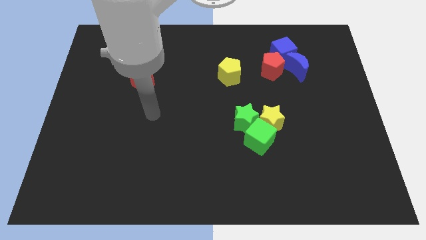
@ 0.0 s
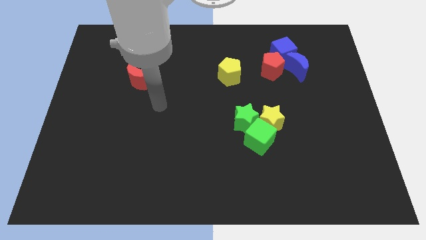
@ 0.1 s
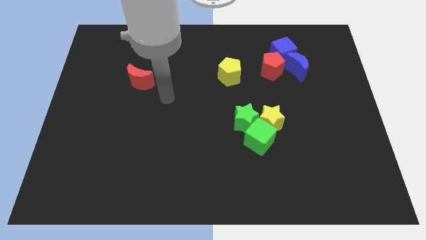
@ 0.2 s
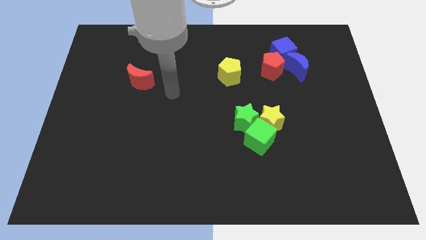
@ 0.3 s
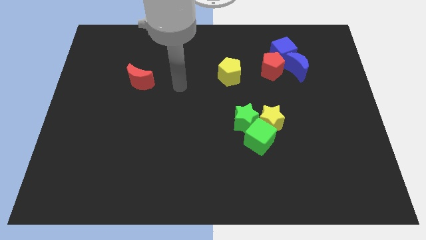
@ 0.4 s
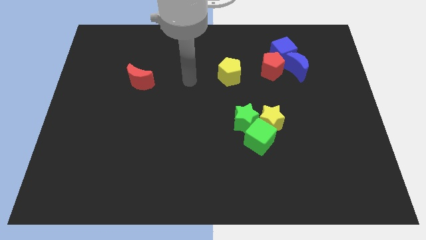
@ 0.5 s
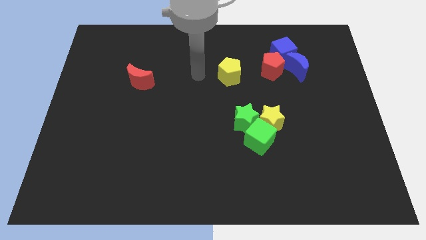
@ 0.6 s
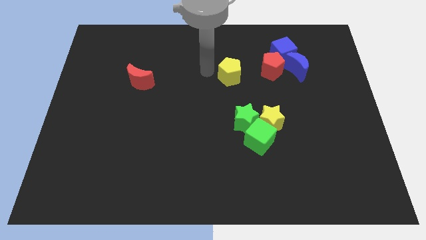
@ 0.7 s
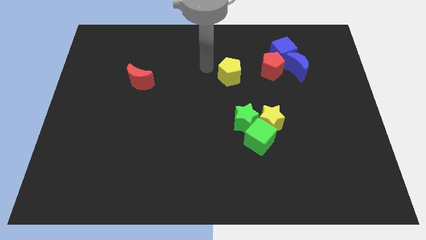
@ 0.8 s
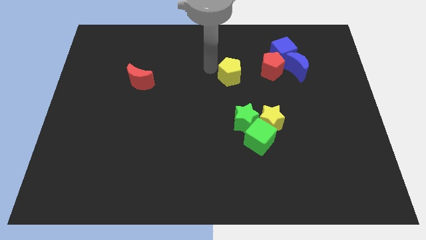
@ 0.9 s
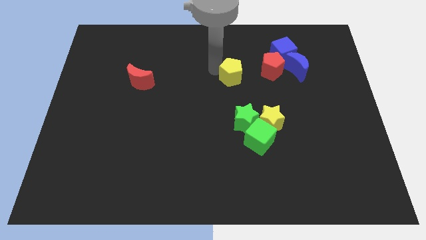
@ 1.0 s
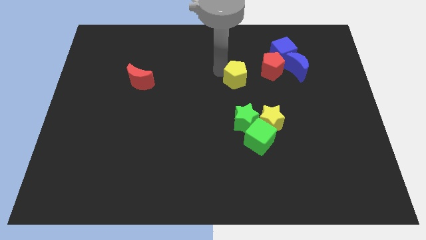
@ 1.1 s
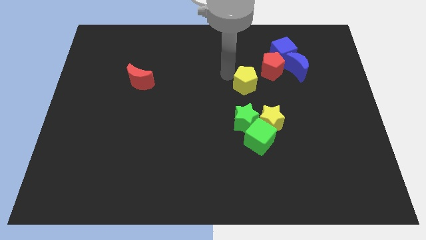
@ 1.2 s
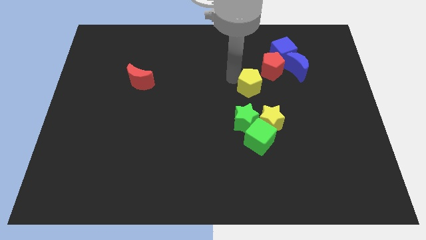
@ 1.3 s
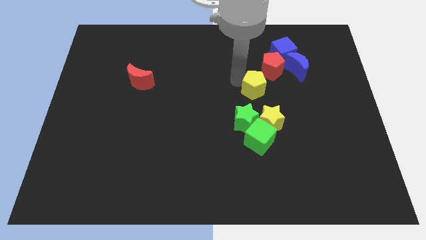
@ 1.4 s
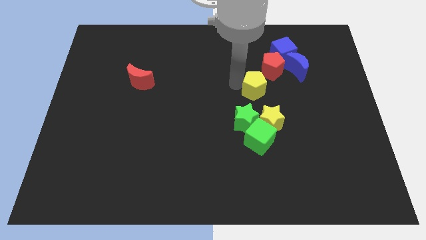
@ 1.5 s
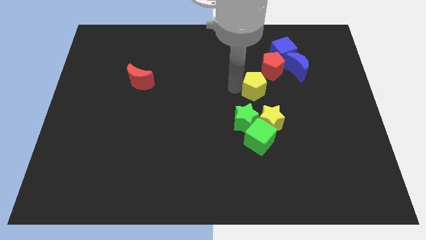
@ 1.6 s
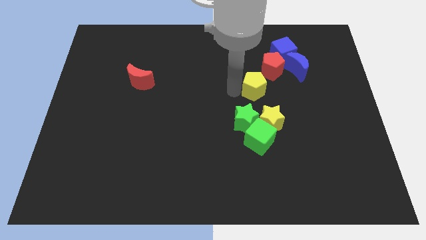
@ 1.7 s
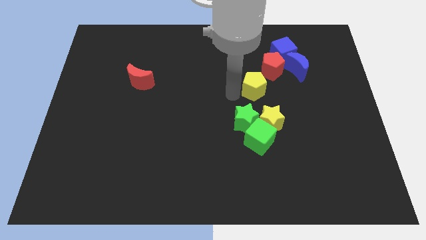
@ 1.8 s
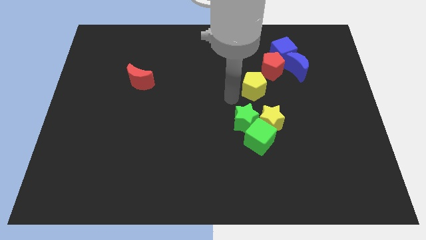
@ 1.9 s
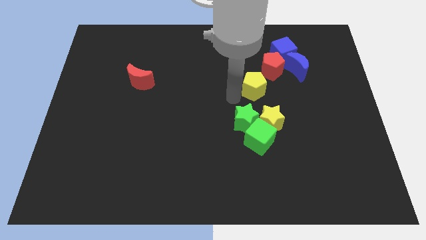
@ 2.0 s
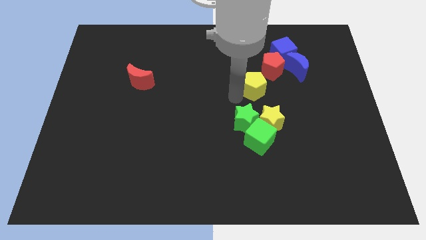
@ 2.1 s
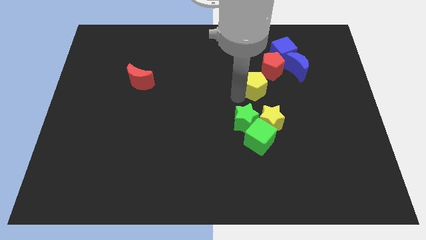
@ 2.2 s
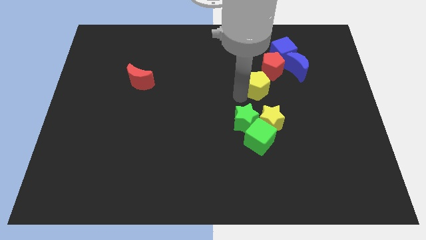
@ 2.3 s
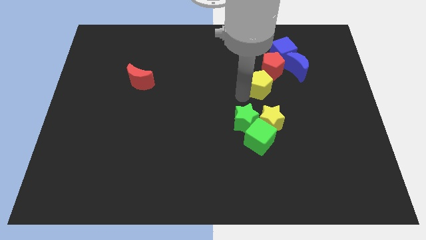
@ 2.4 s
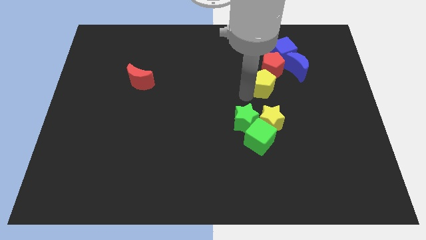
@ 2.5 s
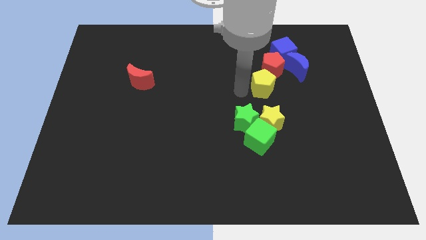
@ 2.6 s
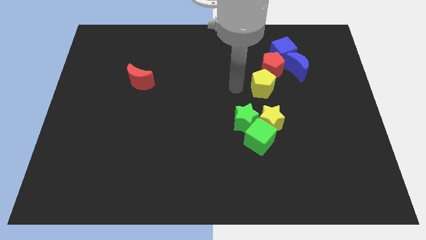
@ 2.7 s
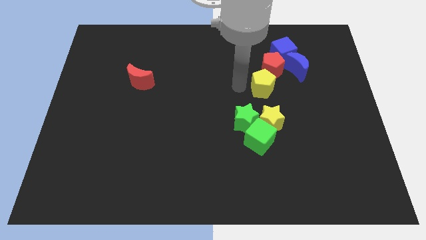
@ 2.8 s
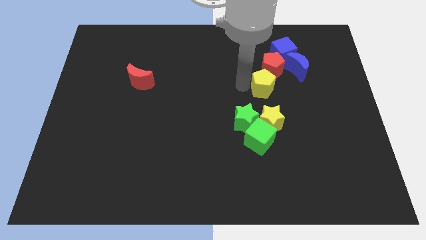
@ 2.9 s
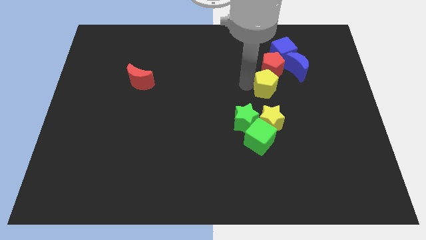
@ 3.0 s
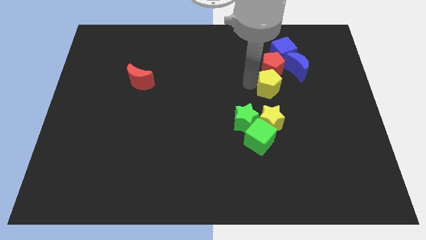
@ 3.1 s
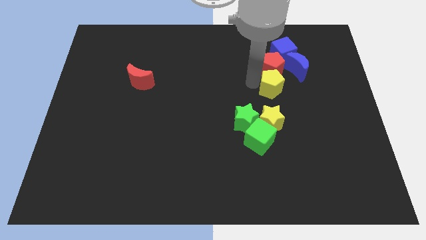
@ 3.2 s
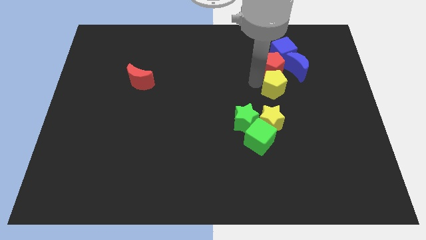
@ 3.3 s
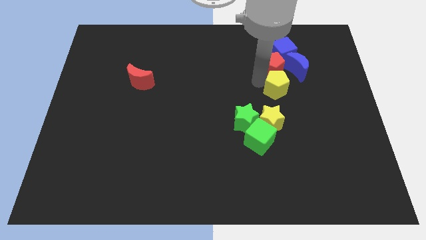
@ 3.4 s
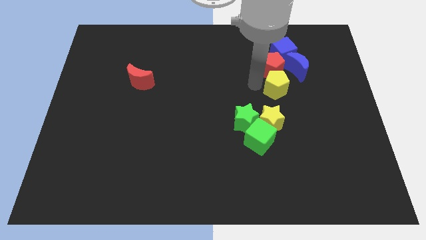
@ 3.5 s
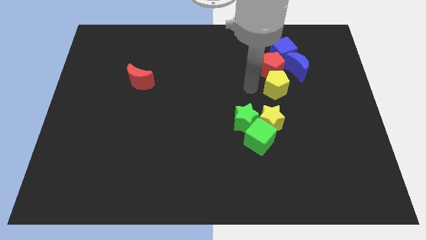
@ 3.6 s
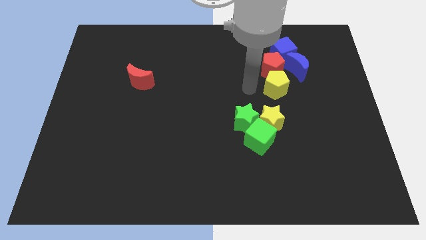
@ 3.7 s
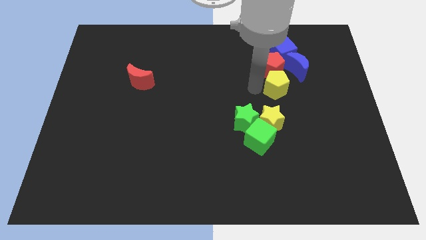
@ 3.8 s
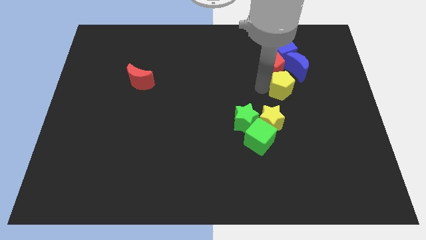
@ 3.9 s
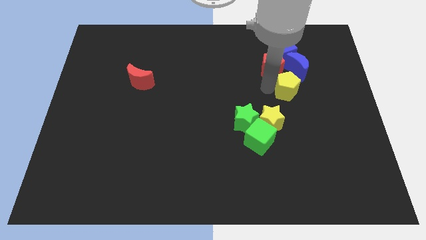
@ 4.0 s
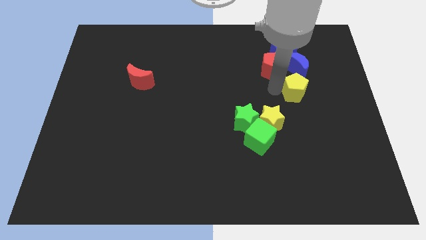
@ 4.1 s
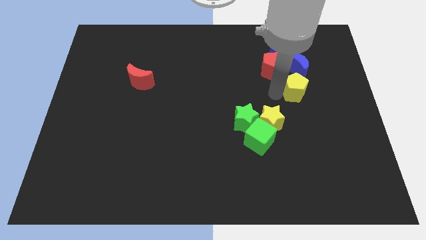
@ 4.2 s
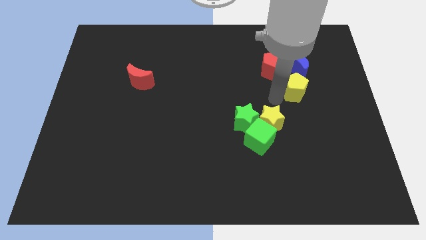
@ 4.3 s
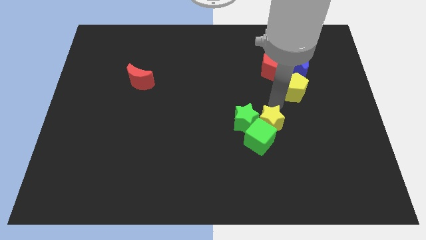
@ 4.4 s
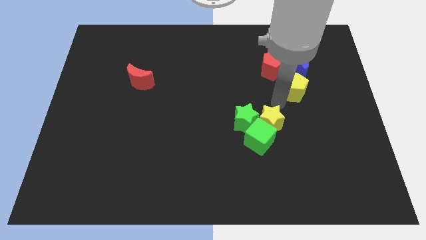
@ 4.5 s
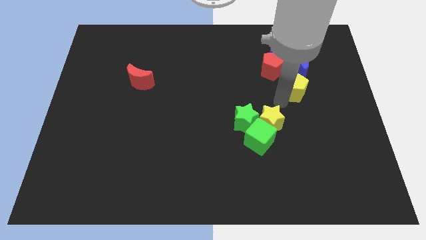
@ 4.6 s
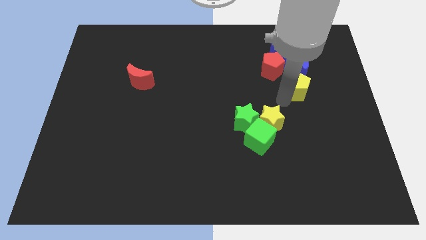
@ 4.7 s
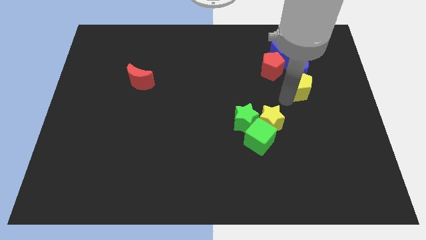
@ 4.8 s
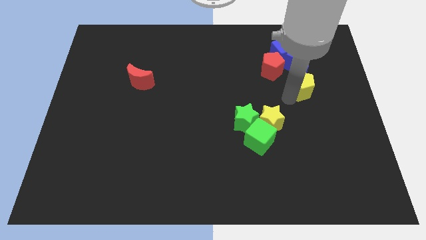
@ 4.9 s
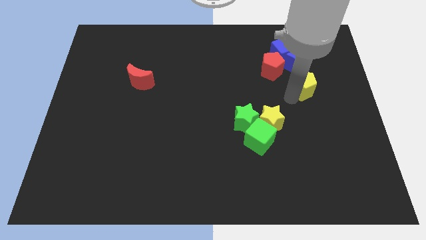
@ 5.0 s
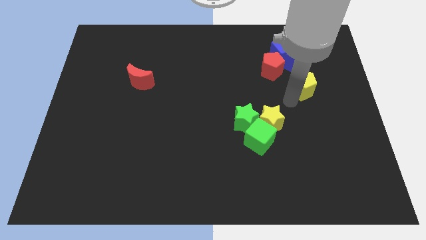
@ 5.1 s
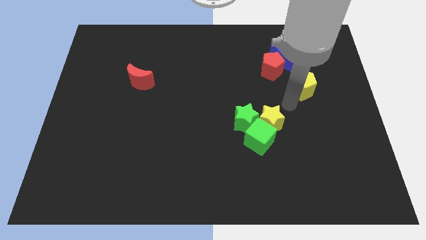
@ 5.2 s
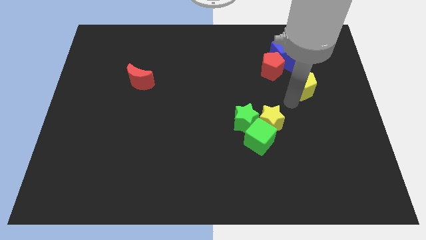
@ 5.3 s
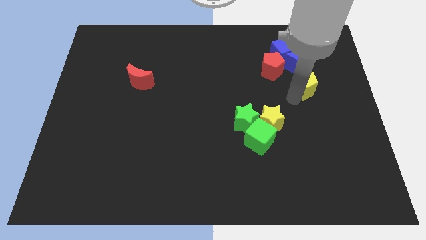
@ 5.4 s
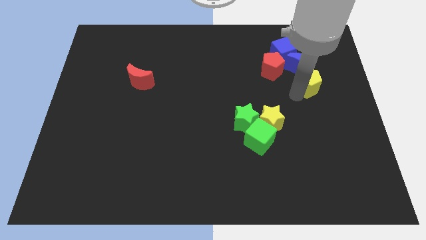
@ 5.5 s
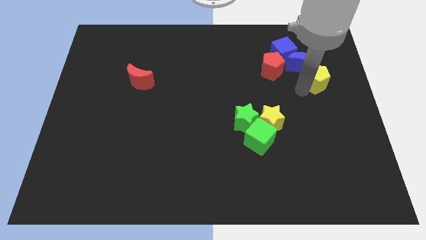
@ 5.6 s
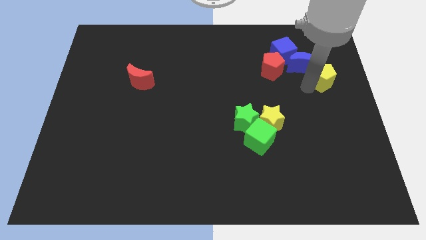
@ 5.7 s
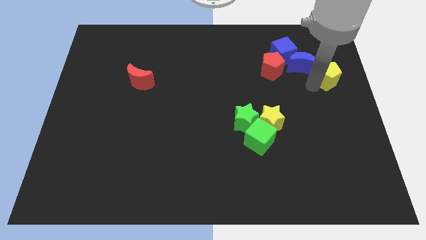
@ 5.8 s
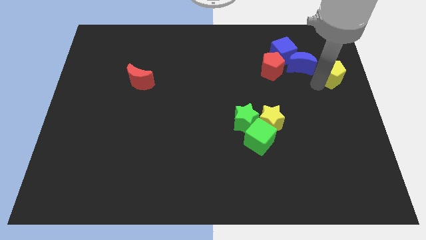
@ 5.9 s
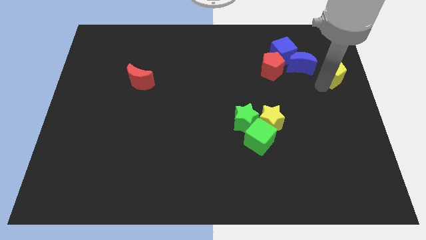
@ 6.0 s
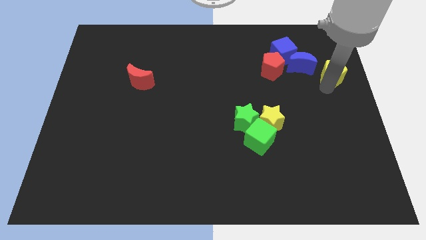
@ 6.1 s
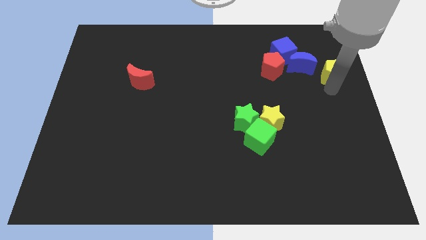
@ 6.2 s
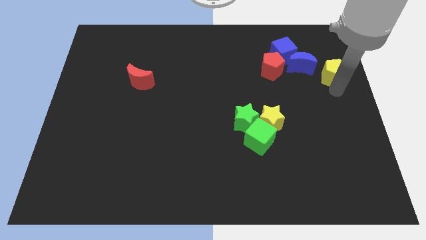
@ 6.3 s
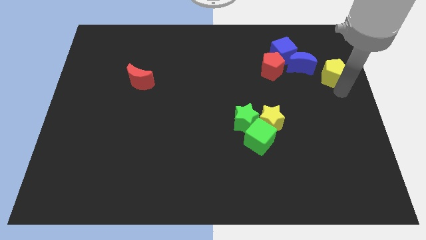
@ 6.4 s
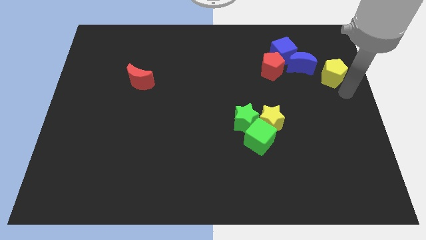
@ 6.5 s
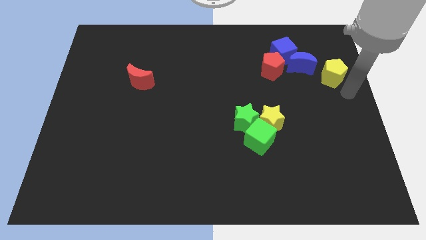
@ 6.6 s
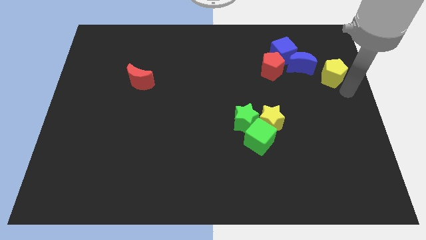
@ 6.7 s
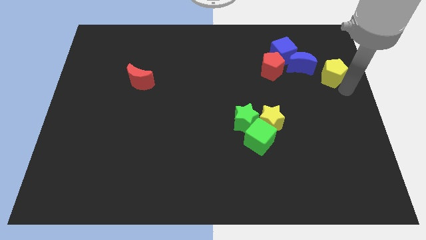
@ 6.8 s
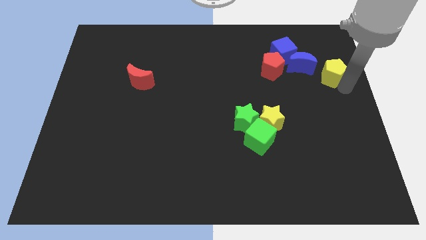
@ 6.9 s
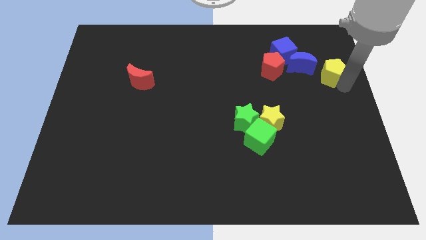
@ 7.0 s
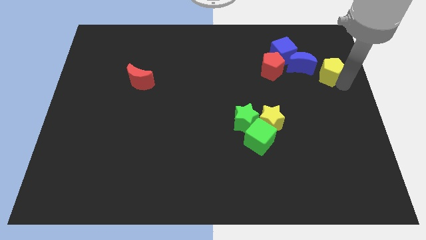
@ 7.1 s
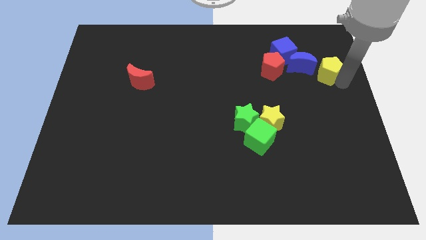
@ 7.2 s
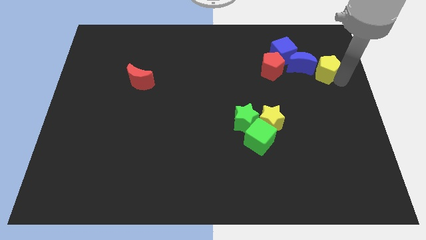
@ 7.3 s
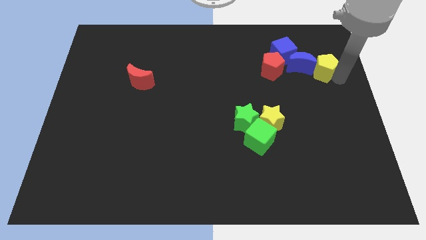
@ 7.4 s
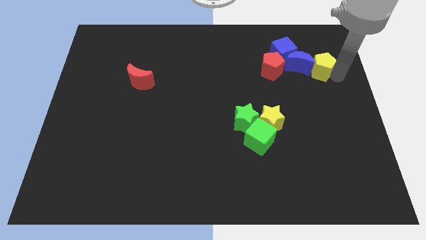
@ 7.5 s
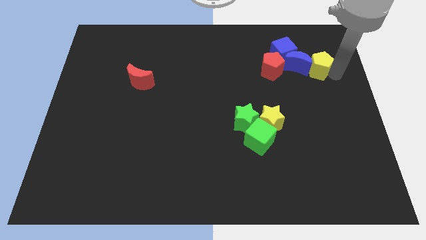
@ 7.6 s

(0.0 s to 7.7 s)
move the yellow pentagon right of the blue cube
